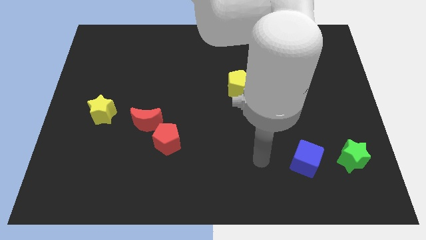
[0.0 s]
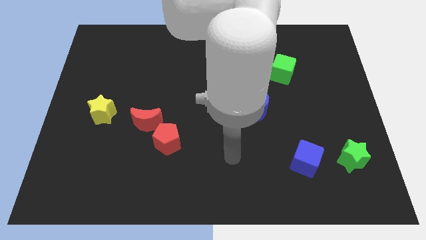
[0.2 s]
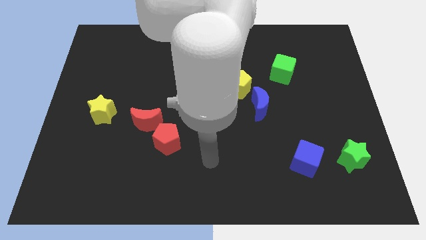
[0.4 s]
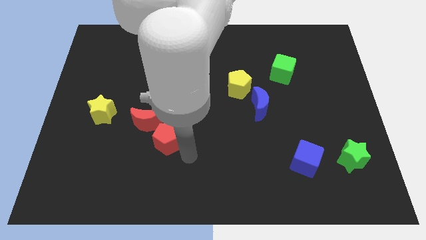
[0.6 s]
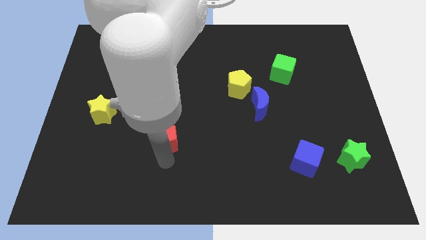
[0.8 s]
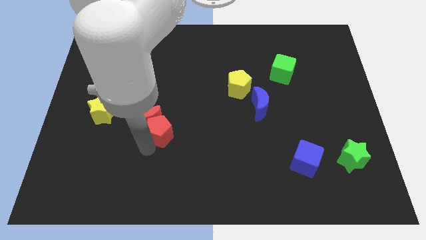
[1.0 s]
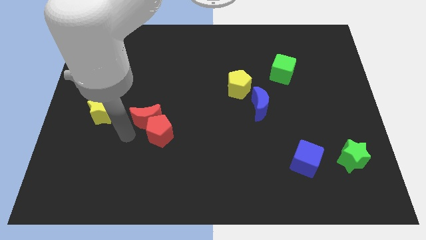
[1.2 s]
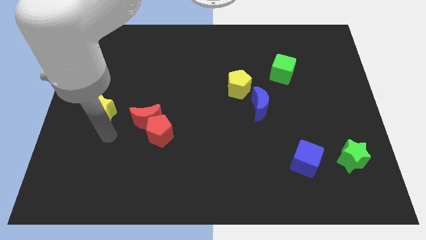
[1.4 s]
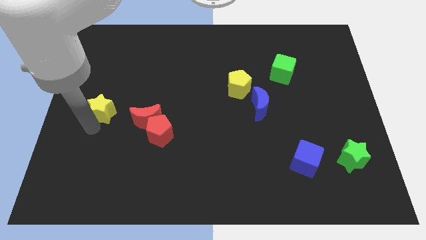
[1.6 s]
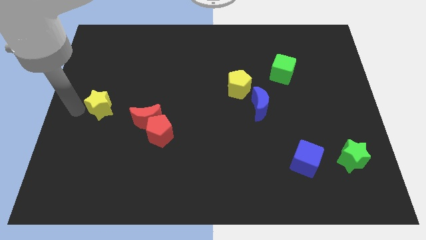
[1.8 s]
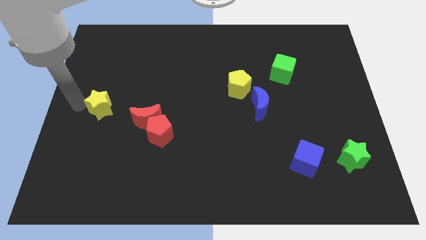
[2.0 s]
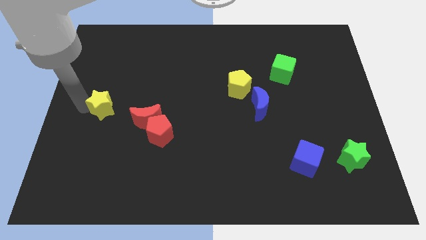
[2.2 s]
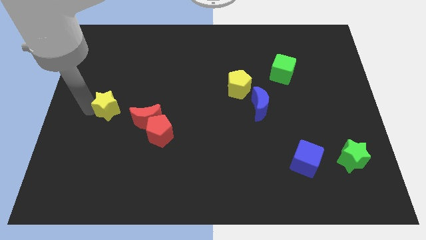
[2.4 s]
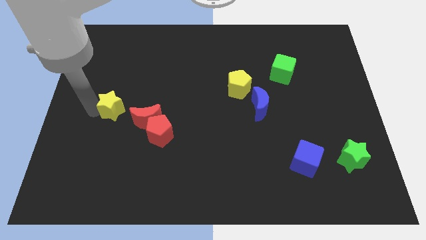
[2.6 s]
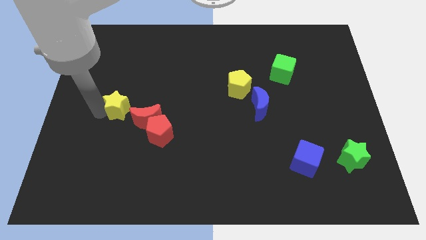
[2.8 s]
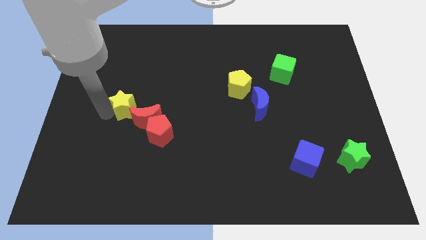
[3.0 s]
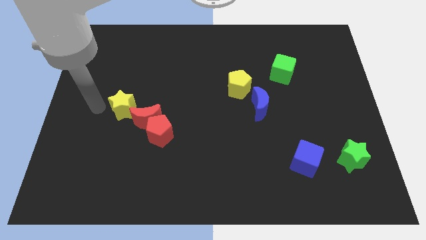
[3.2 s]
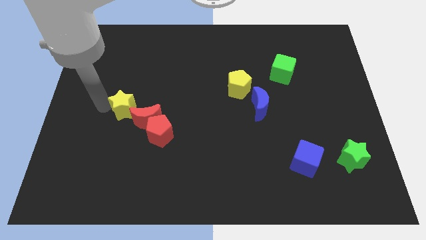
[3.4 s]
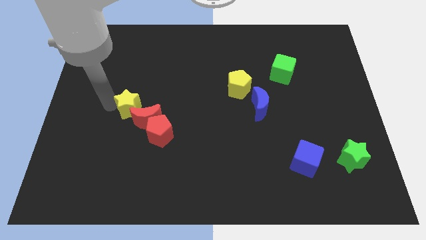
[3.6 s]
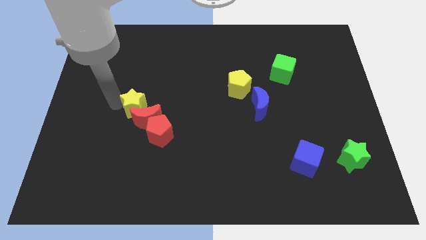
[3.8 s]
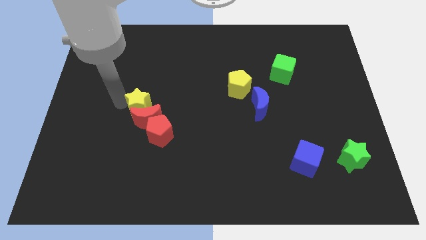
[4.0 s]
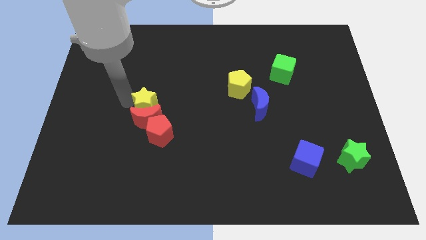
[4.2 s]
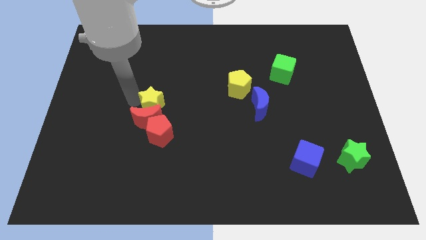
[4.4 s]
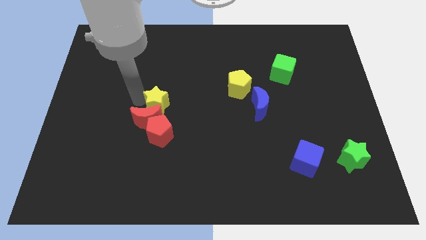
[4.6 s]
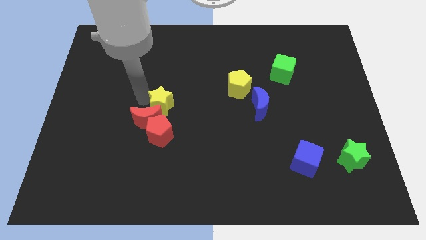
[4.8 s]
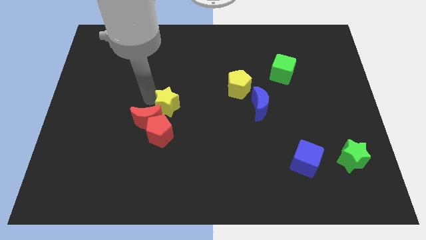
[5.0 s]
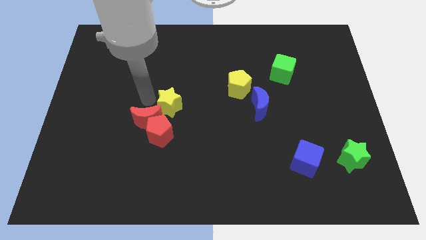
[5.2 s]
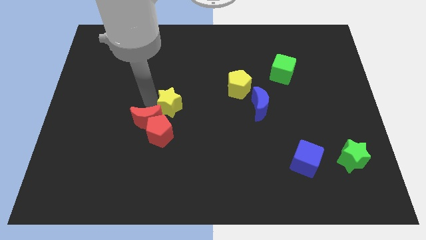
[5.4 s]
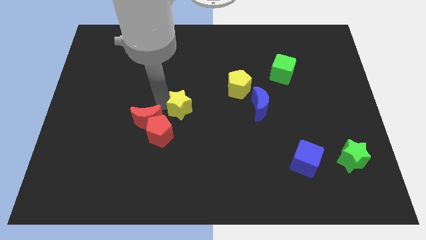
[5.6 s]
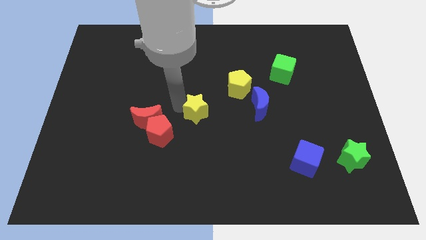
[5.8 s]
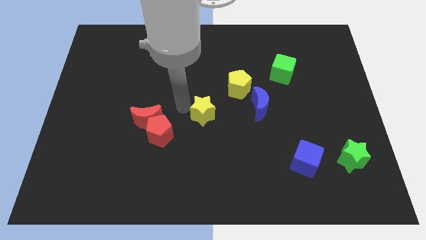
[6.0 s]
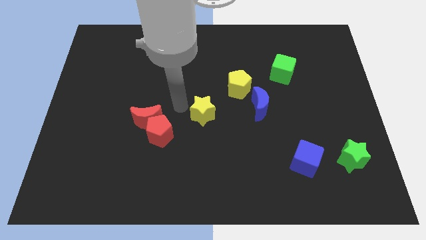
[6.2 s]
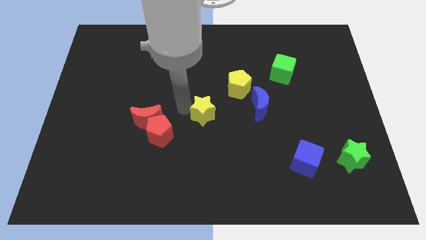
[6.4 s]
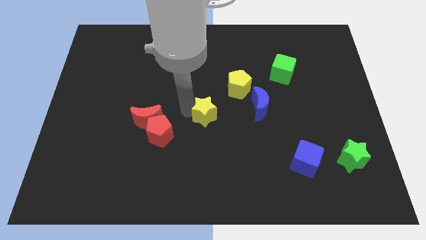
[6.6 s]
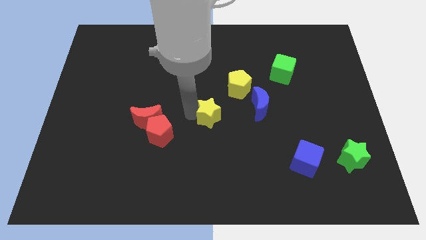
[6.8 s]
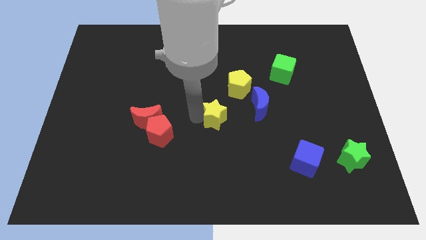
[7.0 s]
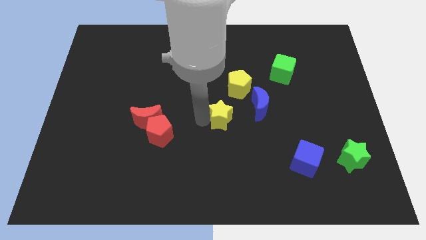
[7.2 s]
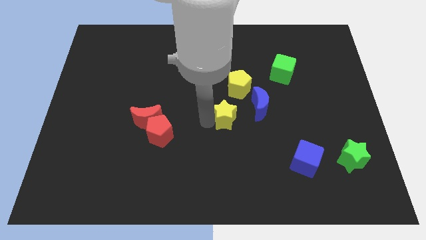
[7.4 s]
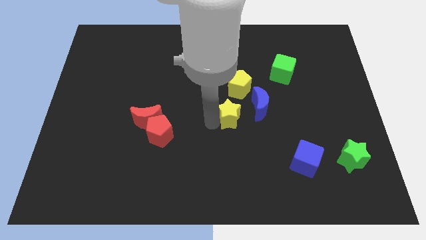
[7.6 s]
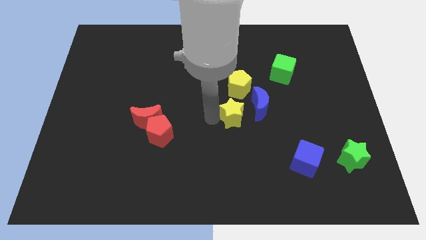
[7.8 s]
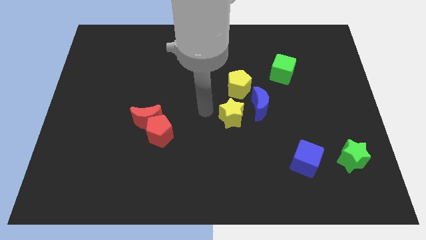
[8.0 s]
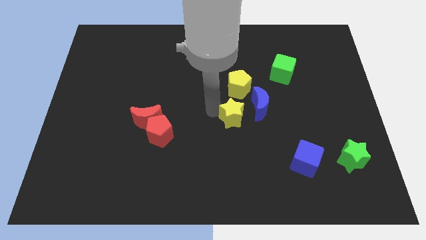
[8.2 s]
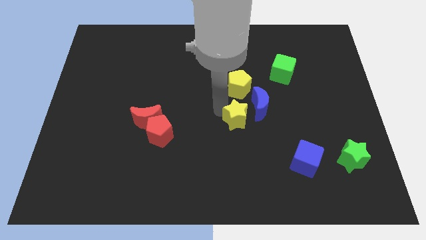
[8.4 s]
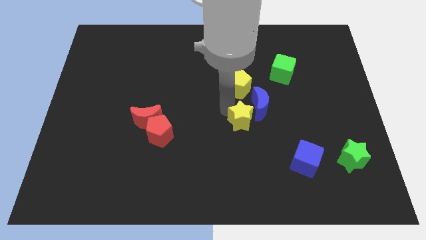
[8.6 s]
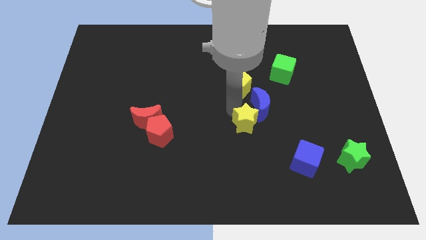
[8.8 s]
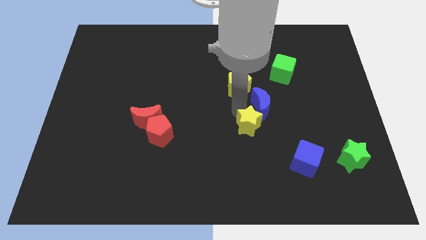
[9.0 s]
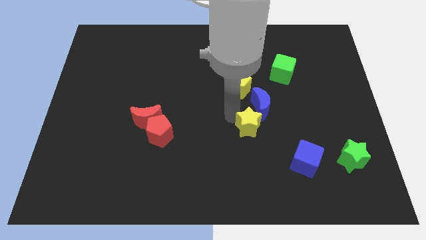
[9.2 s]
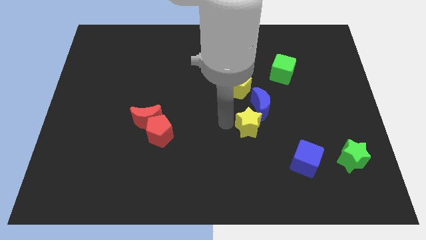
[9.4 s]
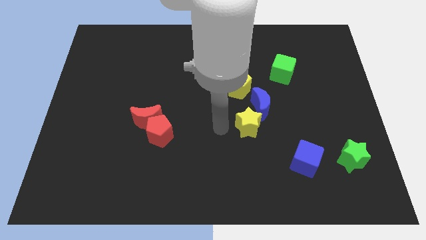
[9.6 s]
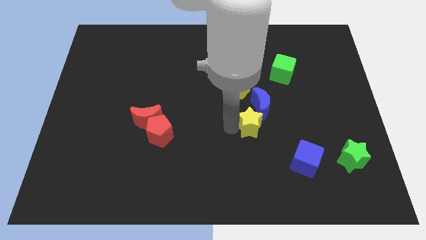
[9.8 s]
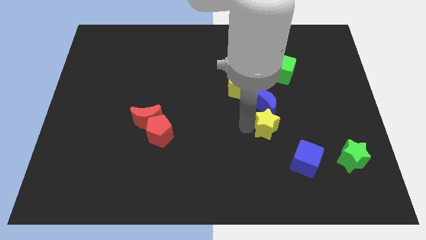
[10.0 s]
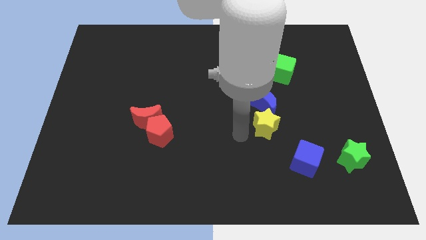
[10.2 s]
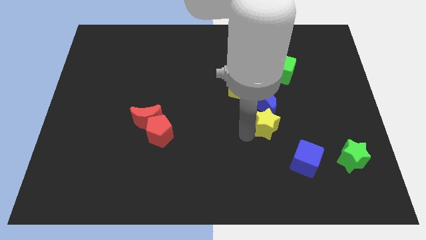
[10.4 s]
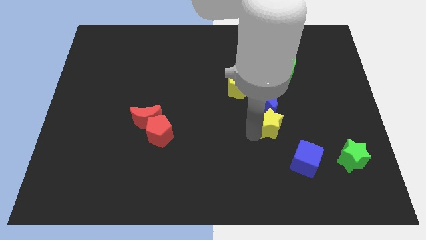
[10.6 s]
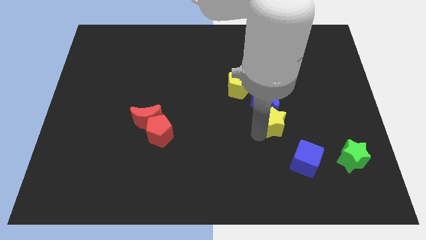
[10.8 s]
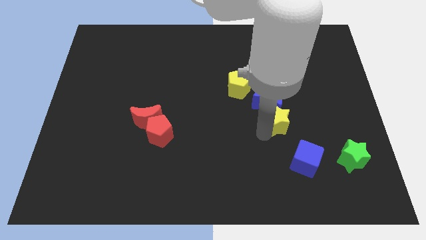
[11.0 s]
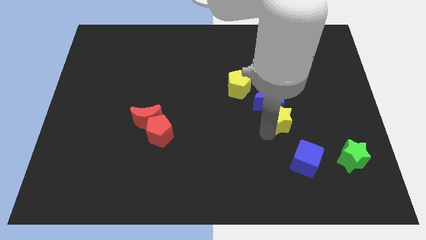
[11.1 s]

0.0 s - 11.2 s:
move the yellow star to the bottom of the green cube

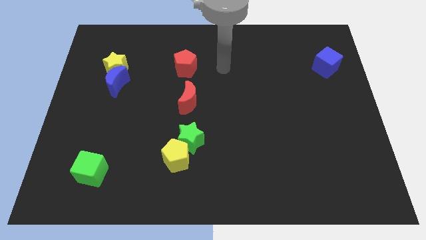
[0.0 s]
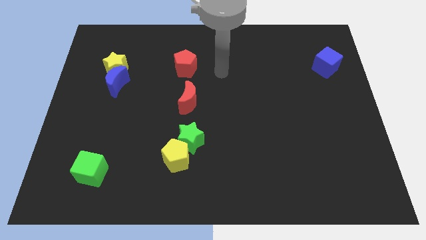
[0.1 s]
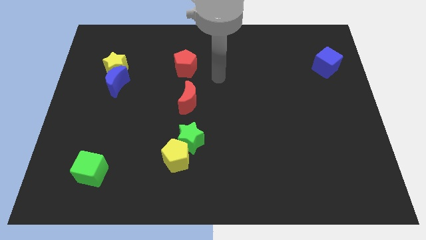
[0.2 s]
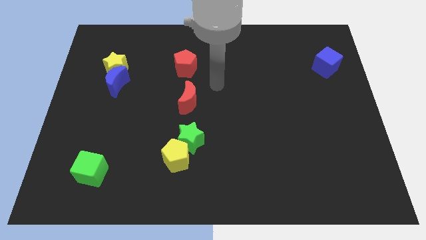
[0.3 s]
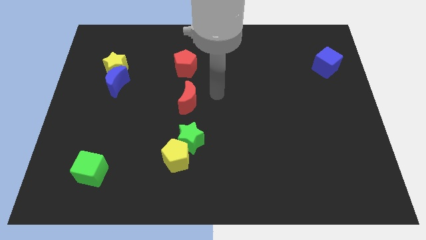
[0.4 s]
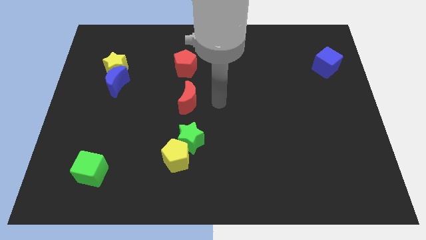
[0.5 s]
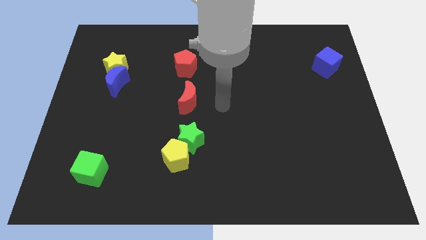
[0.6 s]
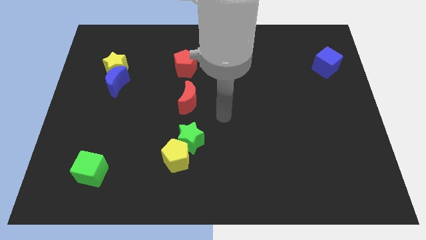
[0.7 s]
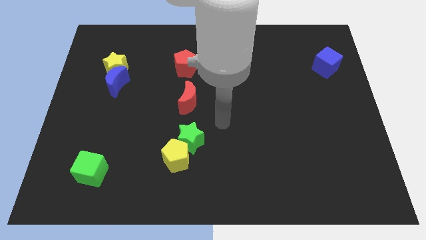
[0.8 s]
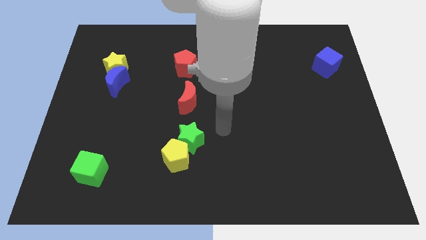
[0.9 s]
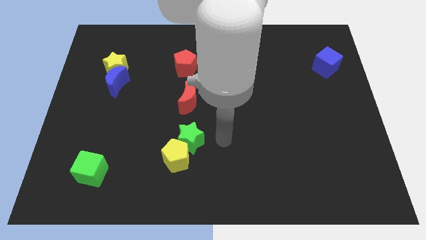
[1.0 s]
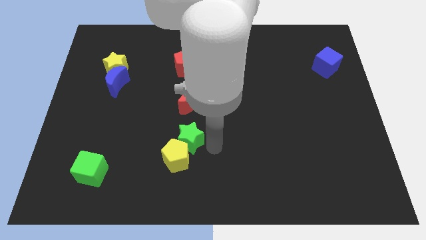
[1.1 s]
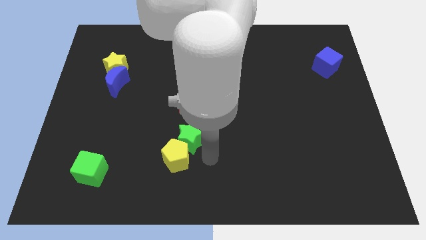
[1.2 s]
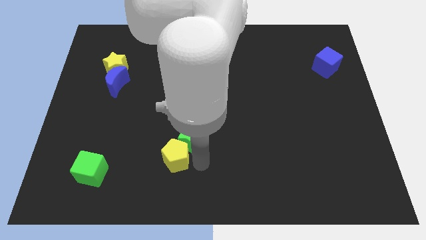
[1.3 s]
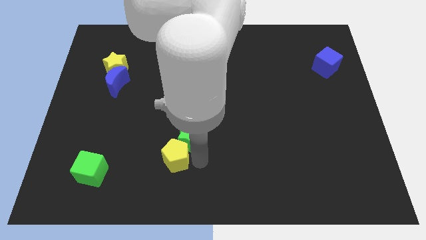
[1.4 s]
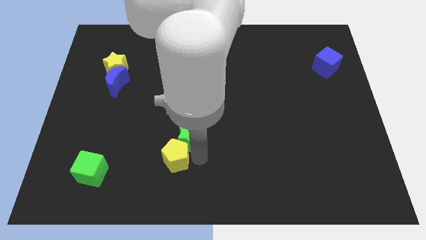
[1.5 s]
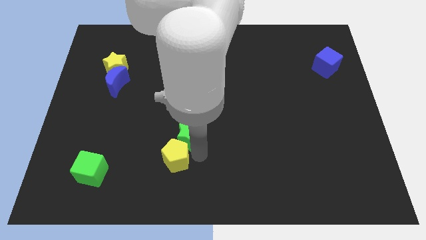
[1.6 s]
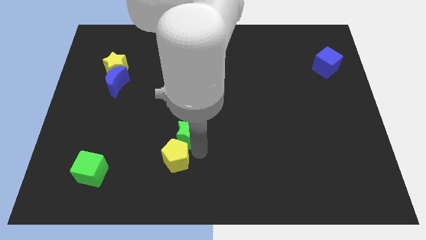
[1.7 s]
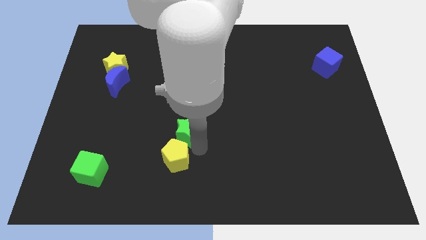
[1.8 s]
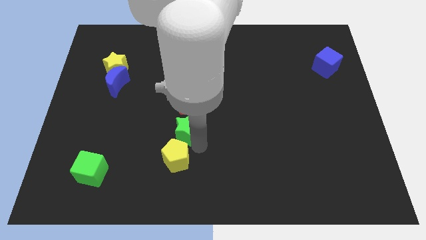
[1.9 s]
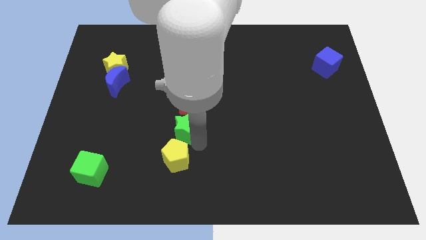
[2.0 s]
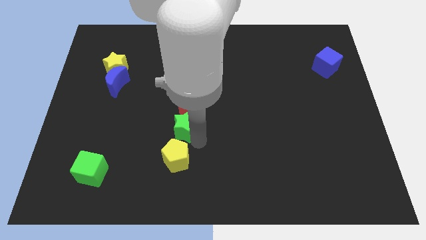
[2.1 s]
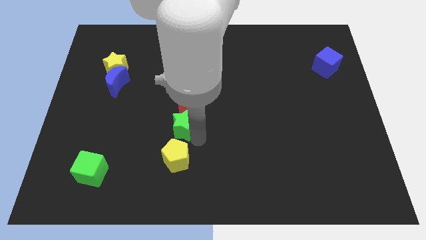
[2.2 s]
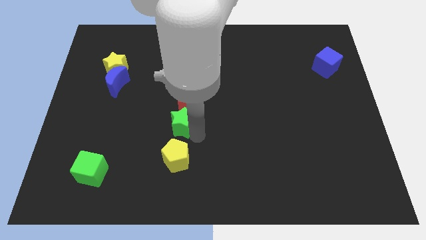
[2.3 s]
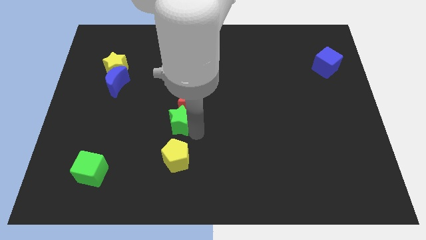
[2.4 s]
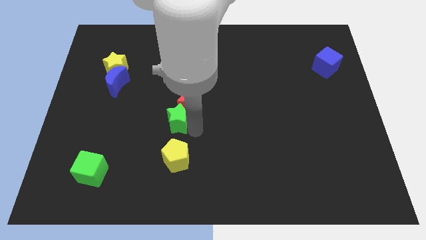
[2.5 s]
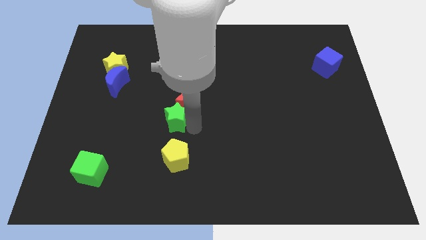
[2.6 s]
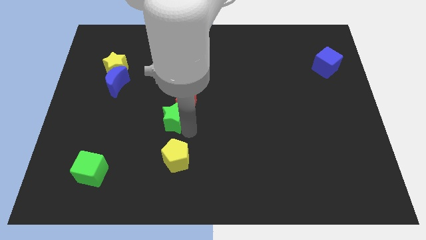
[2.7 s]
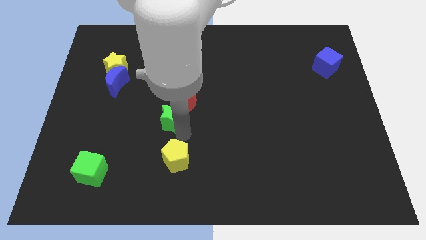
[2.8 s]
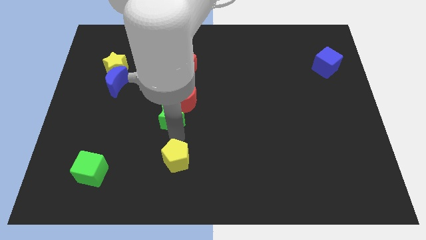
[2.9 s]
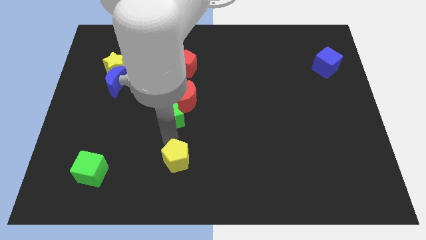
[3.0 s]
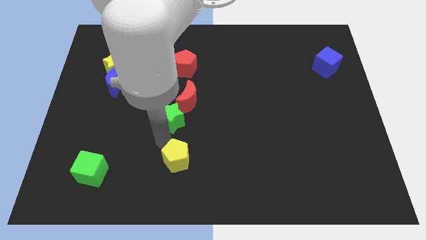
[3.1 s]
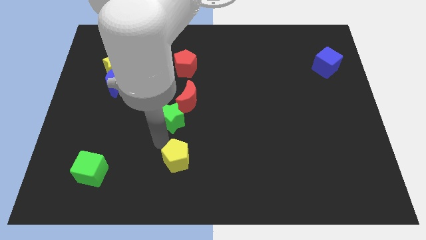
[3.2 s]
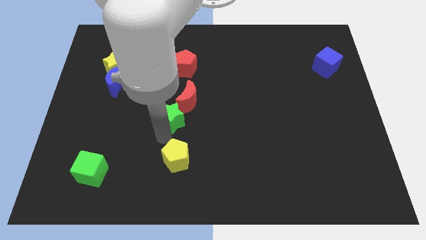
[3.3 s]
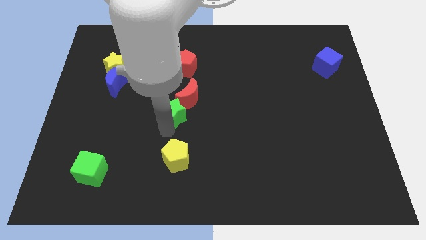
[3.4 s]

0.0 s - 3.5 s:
move the green star to the bottom of the red pentagon
